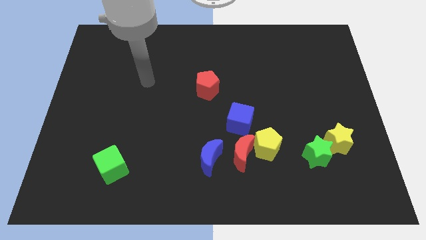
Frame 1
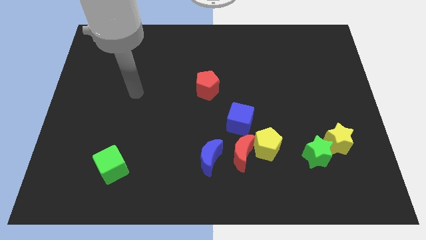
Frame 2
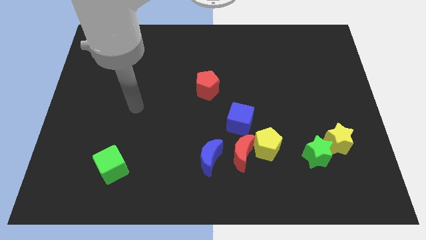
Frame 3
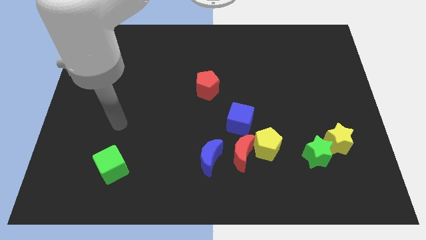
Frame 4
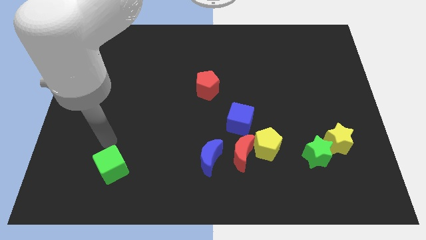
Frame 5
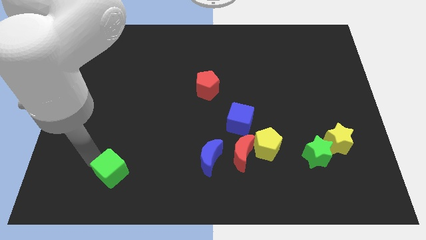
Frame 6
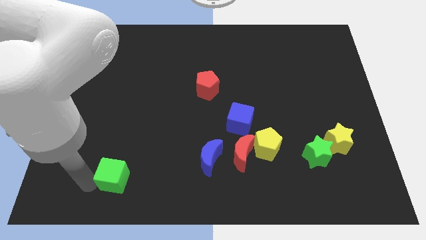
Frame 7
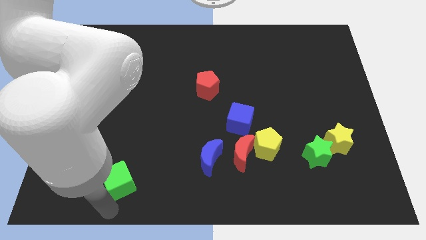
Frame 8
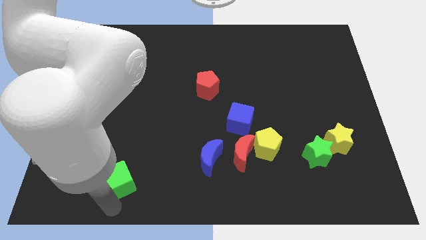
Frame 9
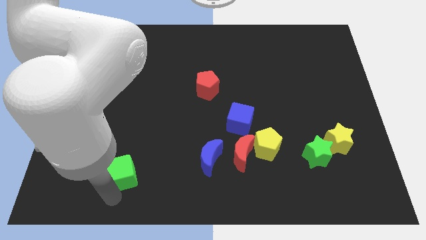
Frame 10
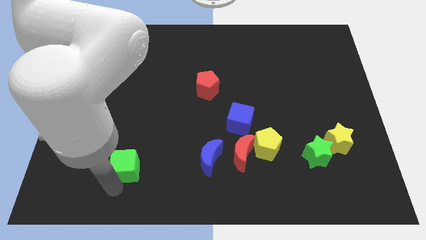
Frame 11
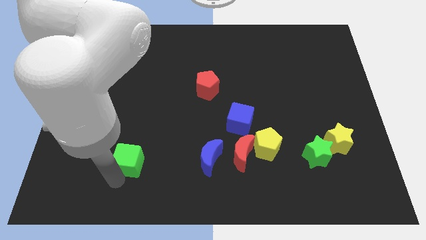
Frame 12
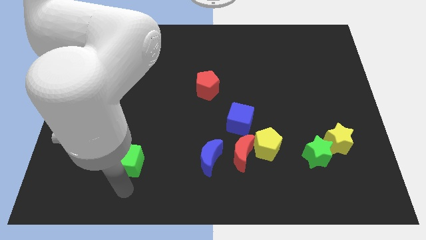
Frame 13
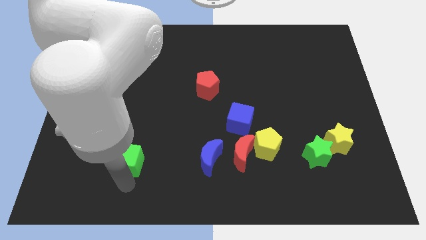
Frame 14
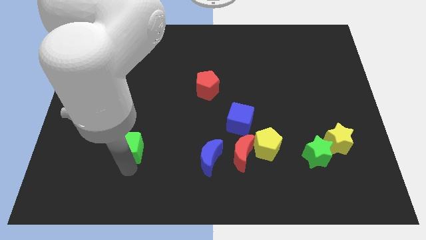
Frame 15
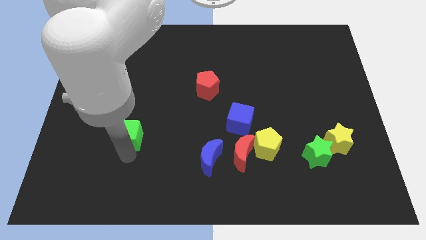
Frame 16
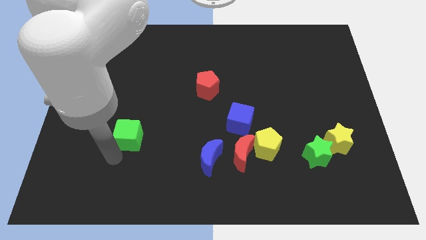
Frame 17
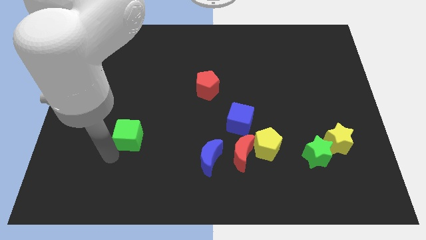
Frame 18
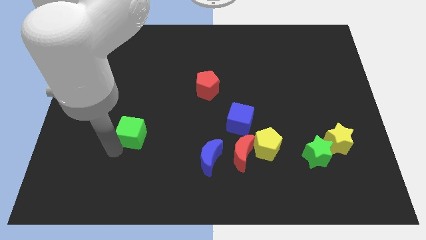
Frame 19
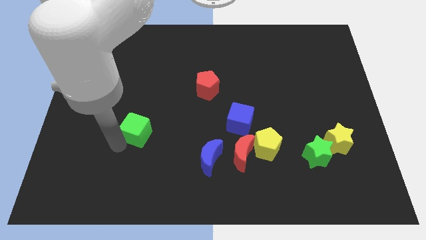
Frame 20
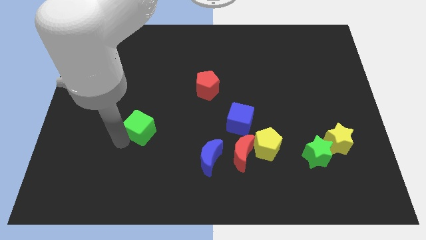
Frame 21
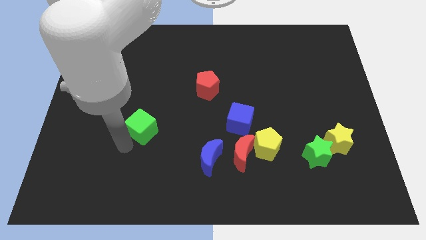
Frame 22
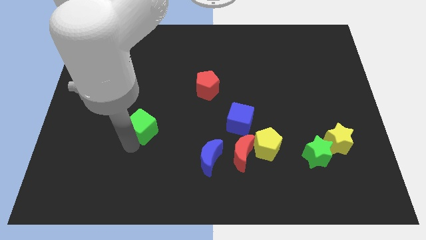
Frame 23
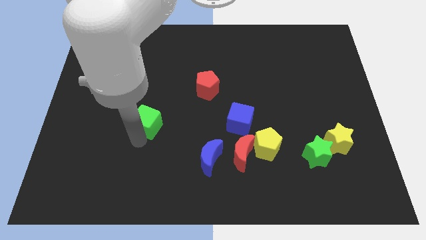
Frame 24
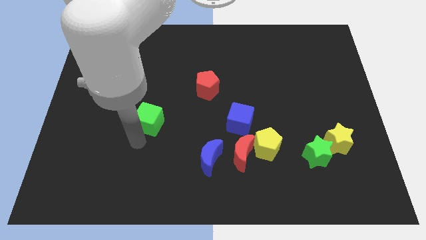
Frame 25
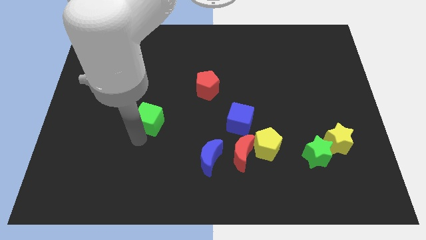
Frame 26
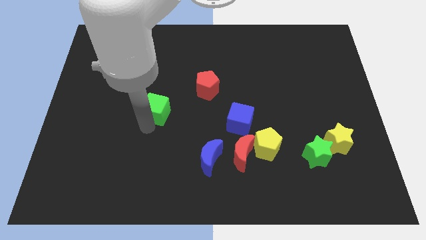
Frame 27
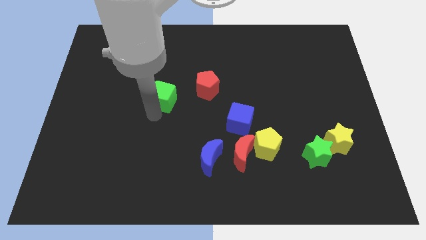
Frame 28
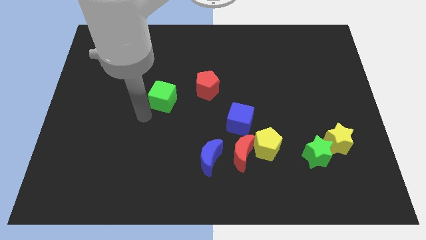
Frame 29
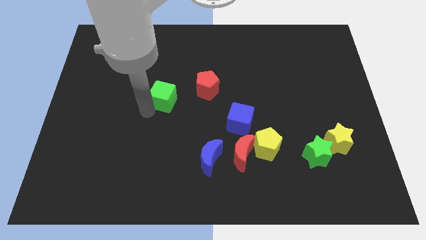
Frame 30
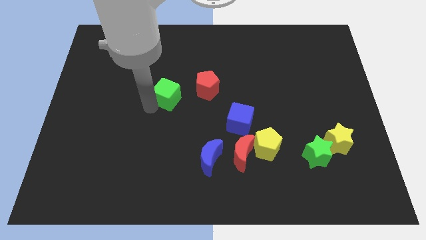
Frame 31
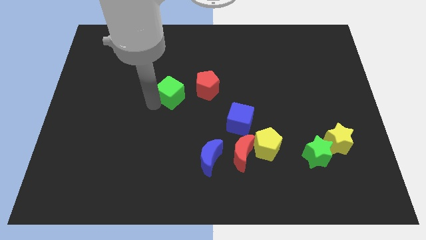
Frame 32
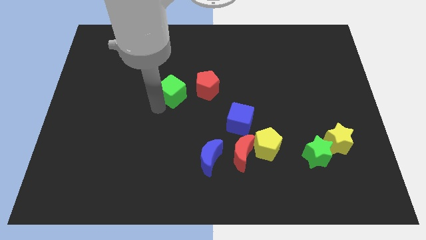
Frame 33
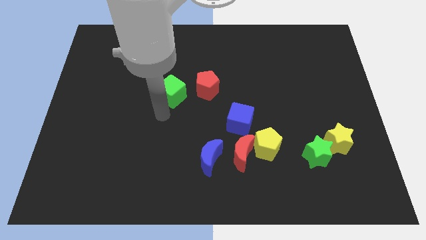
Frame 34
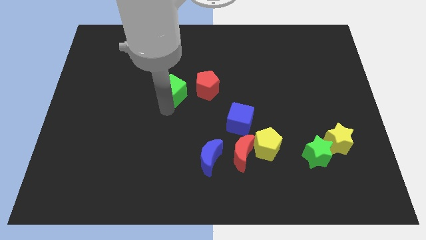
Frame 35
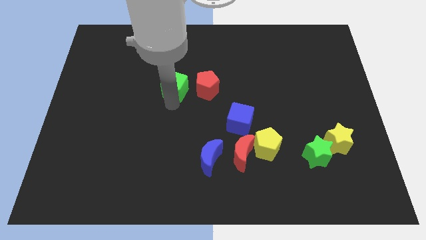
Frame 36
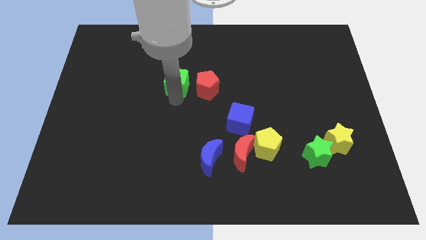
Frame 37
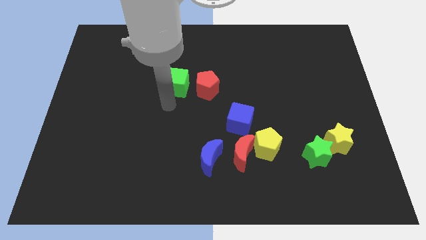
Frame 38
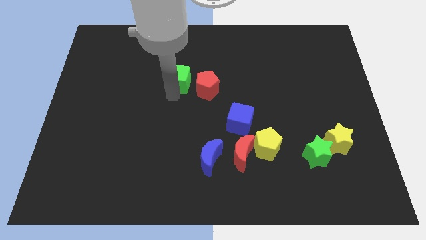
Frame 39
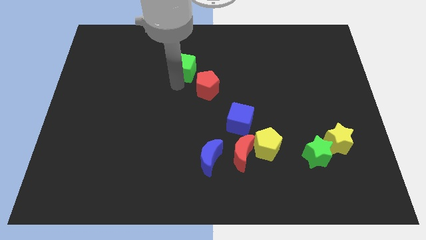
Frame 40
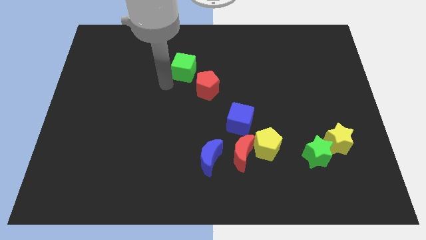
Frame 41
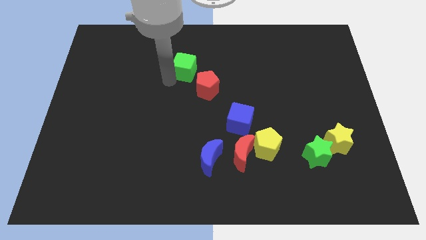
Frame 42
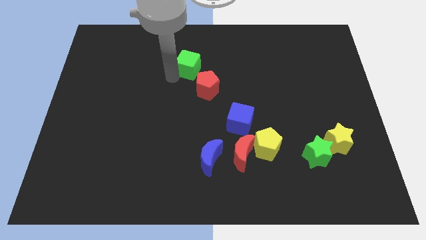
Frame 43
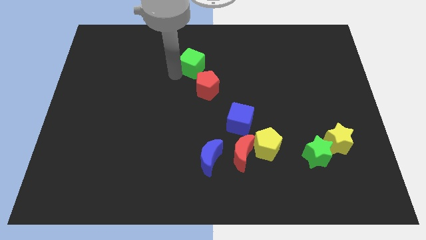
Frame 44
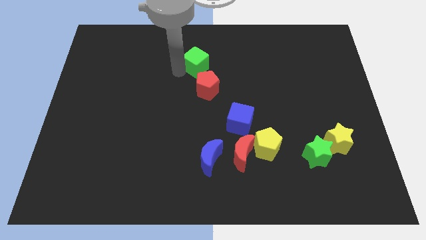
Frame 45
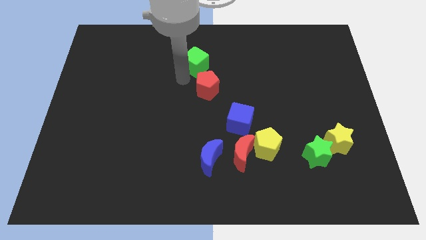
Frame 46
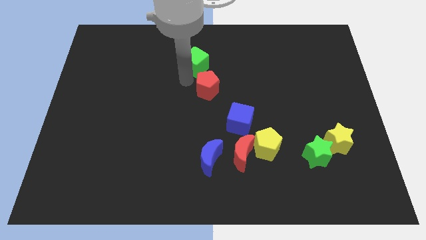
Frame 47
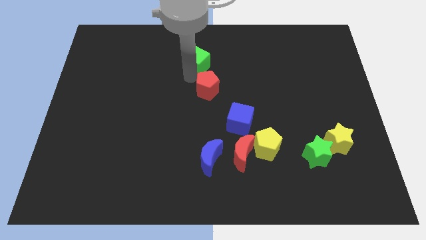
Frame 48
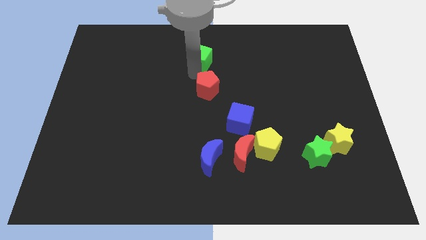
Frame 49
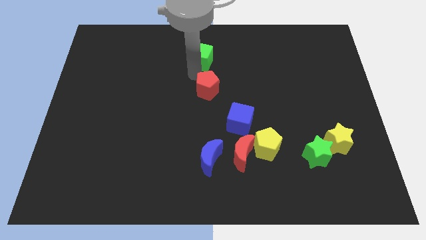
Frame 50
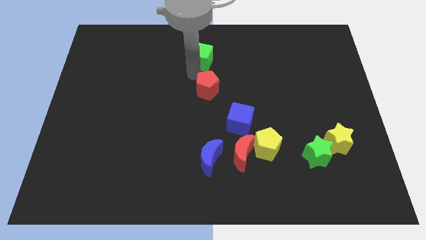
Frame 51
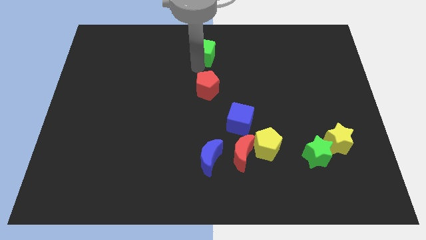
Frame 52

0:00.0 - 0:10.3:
put the green cube to the towards your base

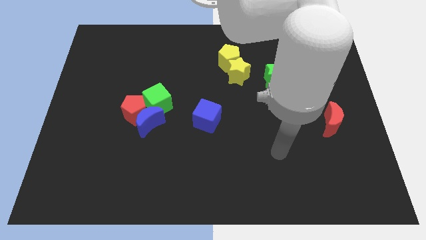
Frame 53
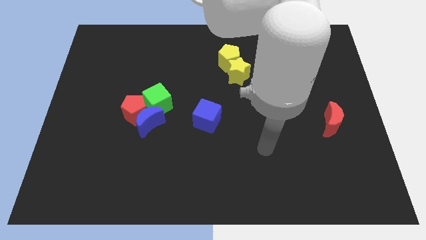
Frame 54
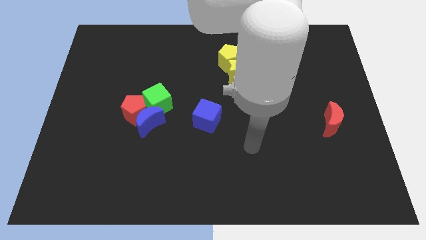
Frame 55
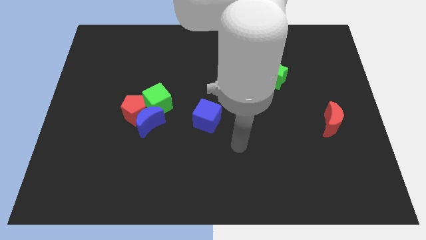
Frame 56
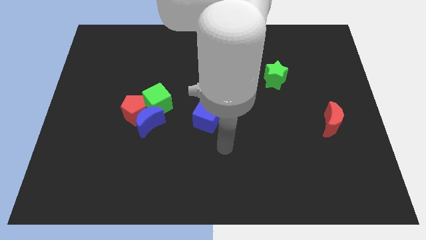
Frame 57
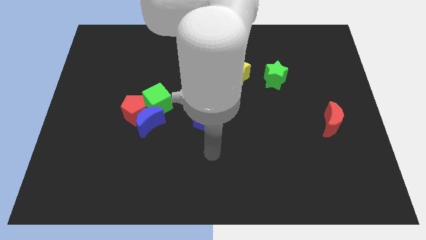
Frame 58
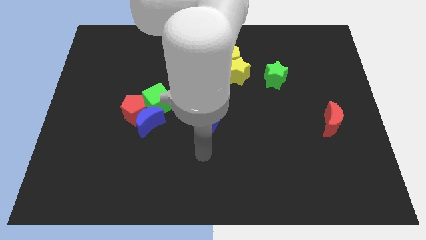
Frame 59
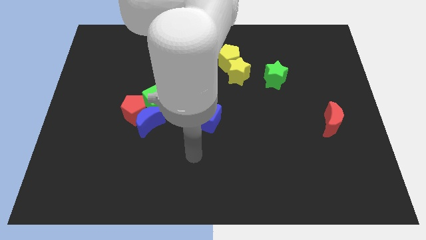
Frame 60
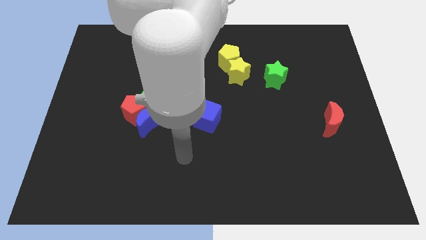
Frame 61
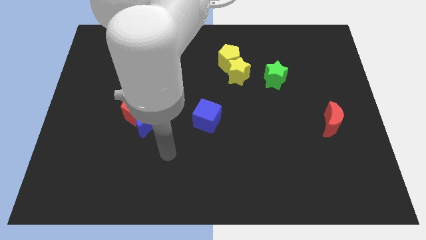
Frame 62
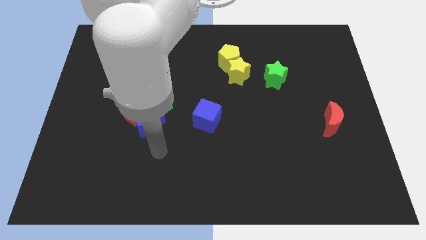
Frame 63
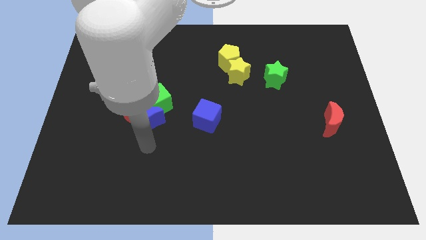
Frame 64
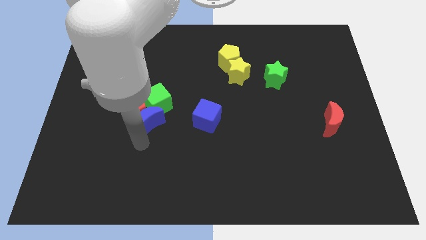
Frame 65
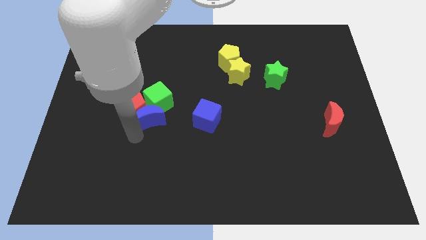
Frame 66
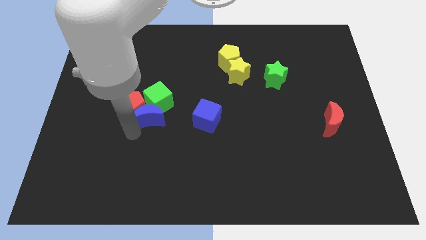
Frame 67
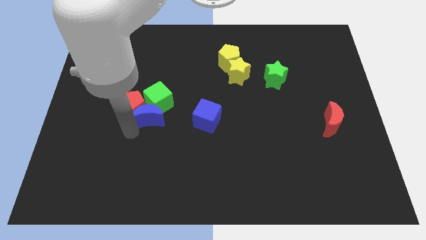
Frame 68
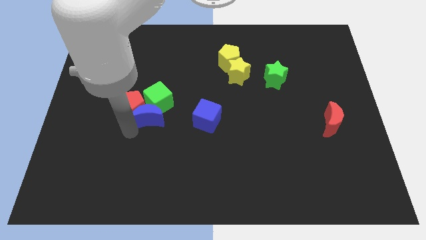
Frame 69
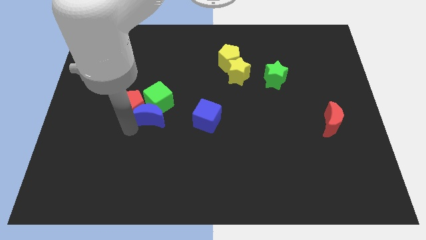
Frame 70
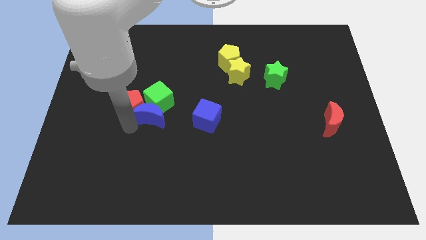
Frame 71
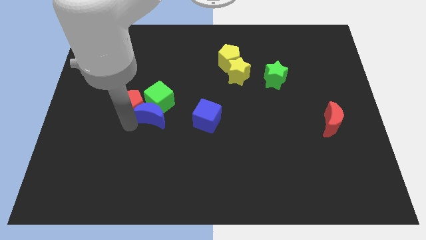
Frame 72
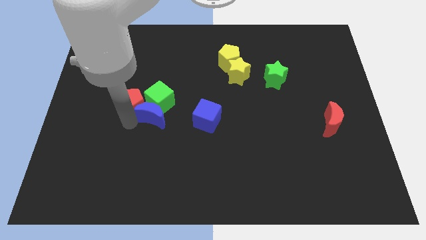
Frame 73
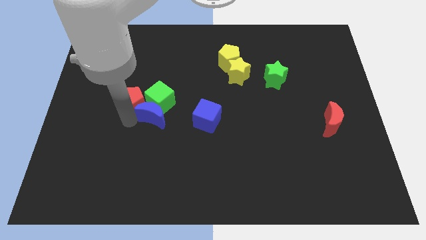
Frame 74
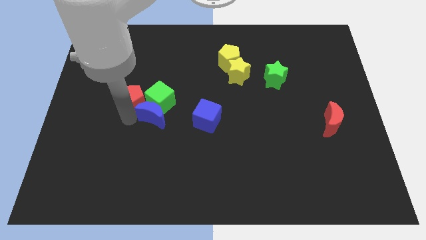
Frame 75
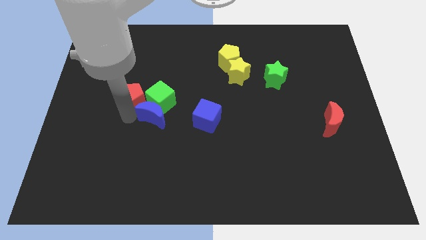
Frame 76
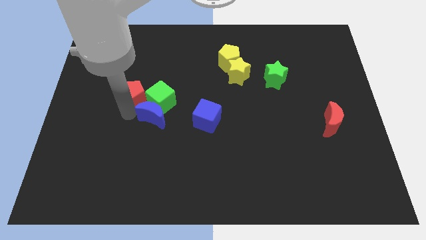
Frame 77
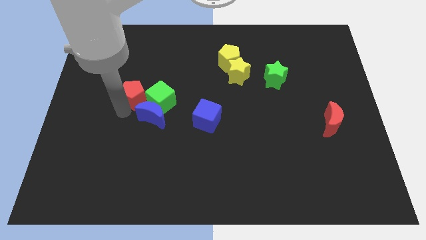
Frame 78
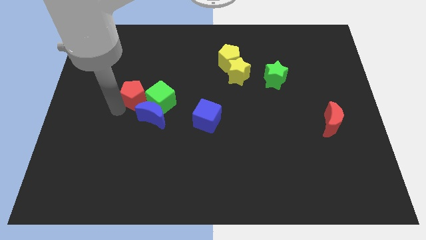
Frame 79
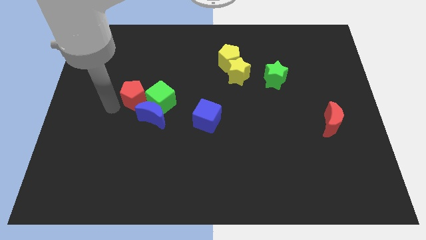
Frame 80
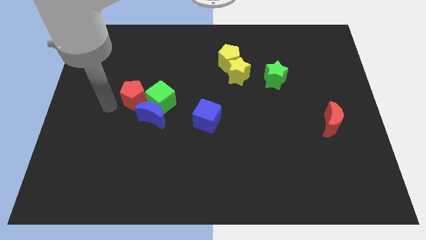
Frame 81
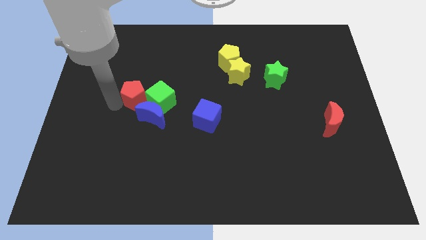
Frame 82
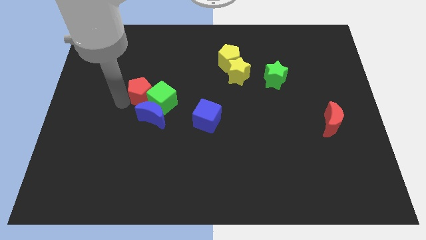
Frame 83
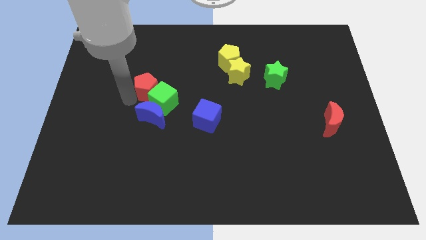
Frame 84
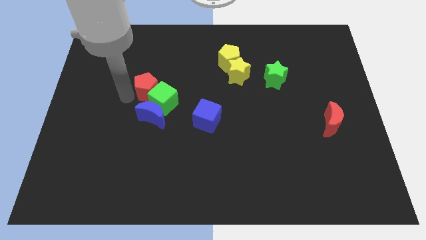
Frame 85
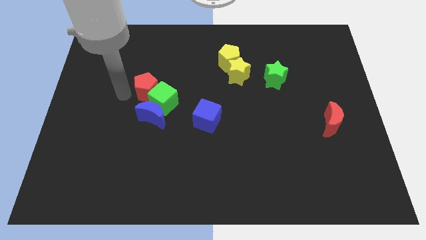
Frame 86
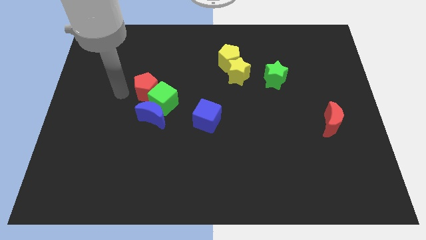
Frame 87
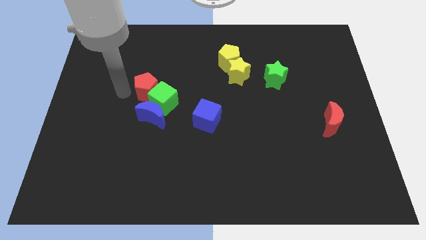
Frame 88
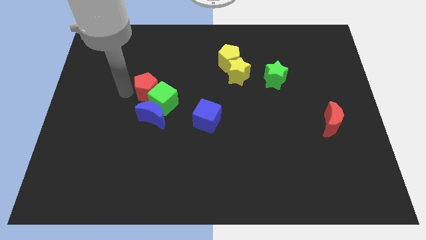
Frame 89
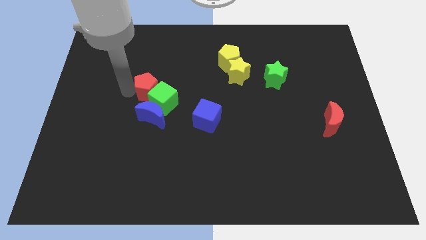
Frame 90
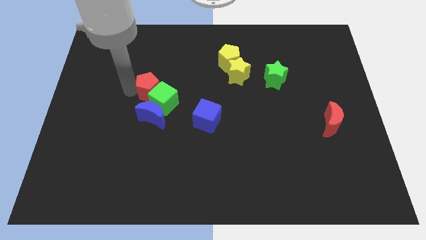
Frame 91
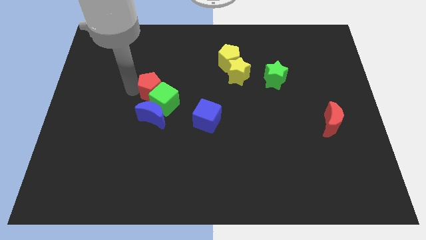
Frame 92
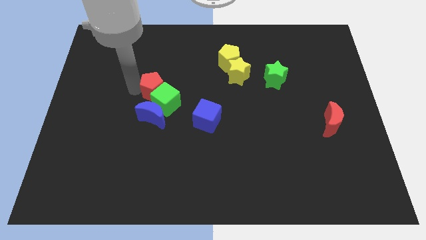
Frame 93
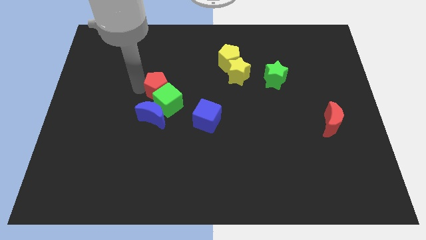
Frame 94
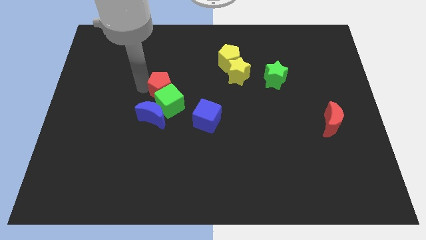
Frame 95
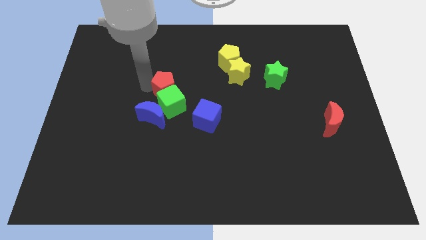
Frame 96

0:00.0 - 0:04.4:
push the red pentagon to the middle
